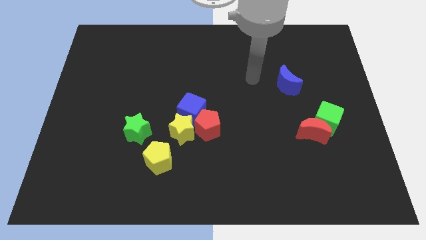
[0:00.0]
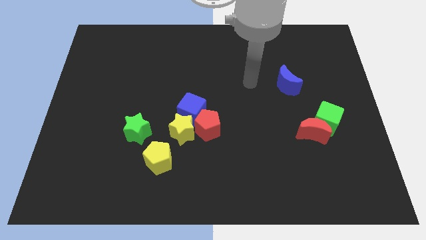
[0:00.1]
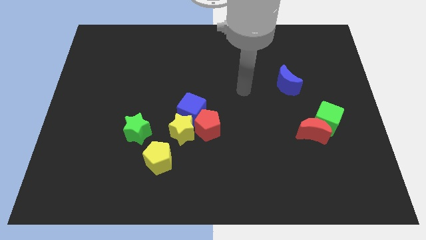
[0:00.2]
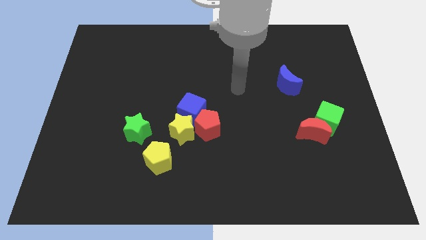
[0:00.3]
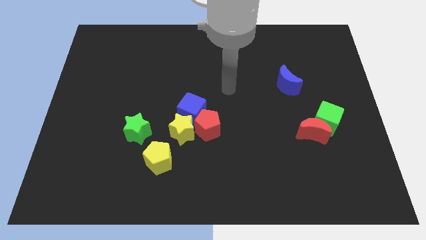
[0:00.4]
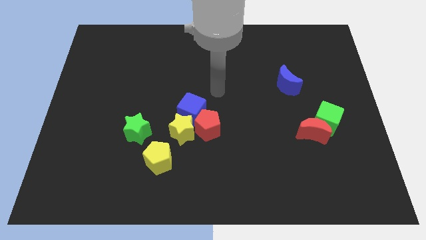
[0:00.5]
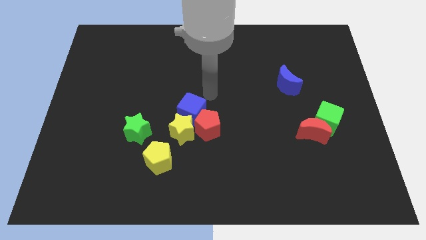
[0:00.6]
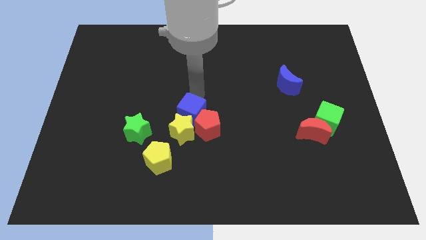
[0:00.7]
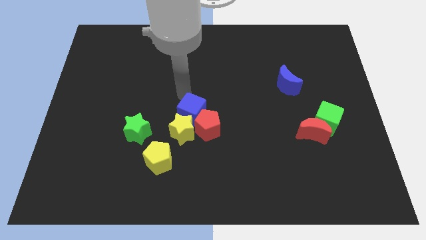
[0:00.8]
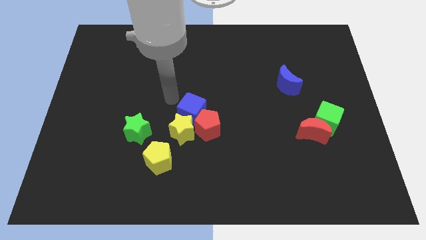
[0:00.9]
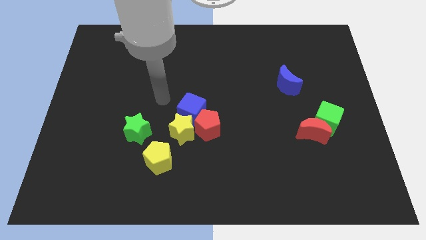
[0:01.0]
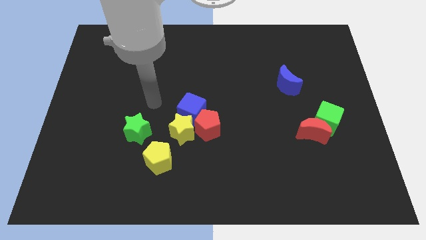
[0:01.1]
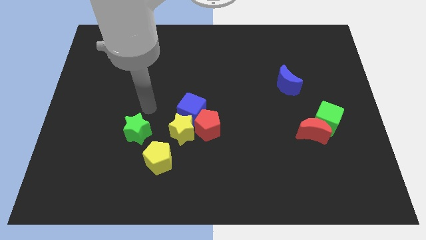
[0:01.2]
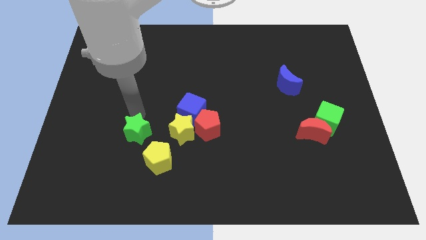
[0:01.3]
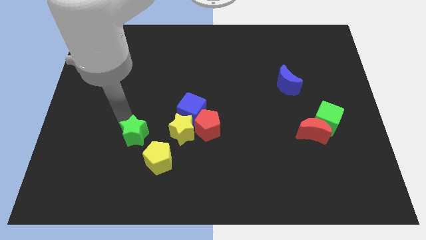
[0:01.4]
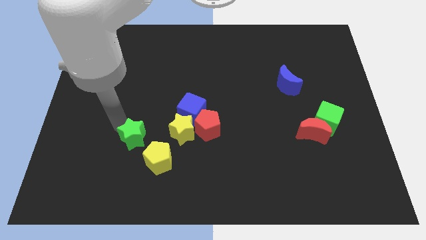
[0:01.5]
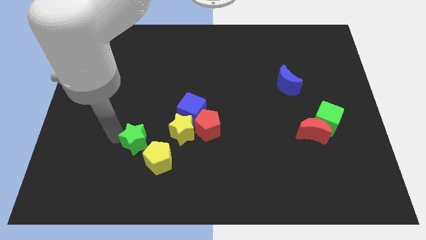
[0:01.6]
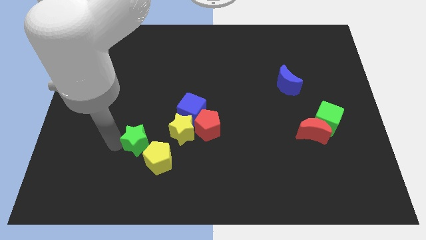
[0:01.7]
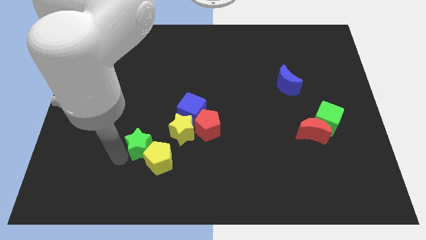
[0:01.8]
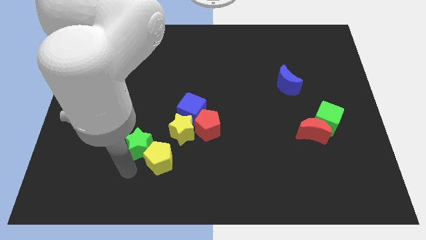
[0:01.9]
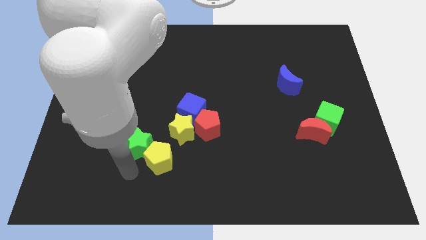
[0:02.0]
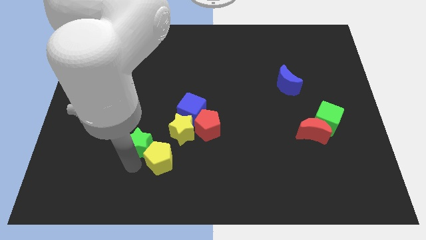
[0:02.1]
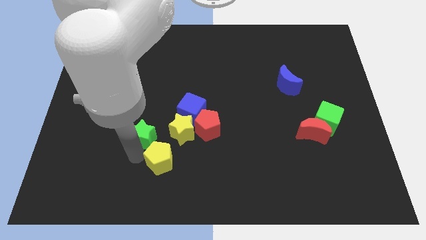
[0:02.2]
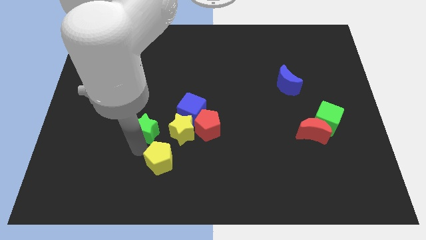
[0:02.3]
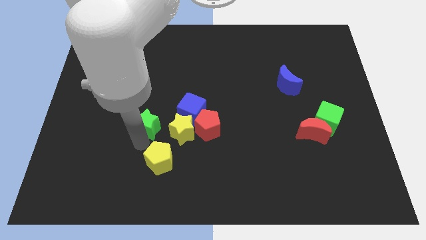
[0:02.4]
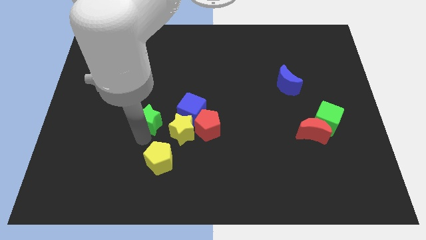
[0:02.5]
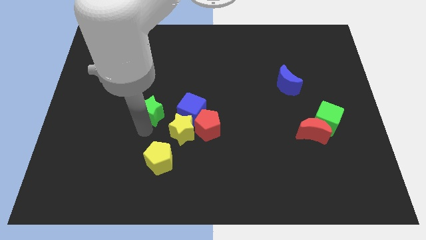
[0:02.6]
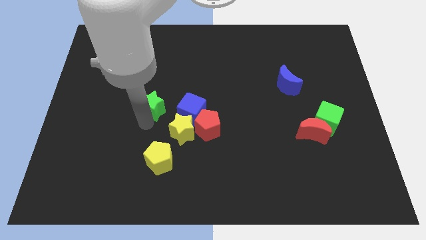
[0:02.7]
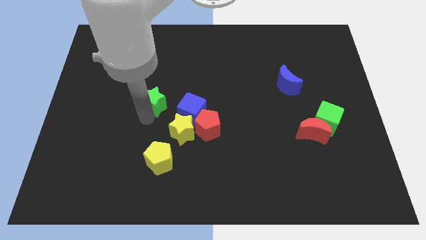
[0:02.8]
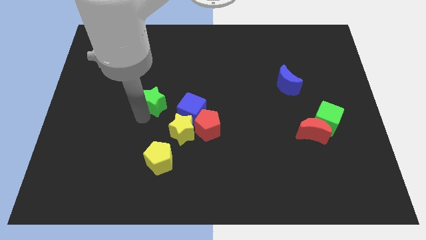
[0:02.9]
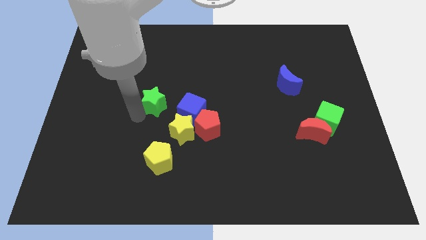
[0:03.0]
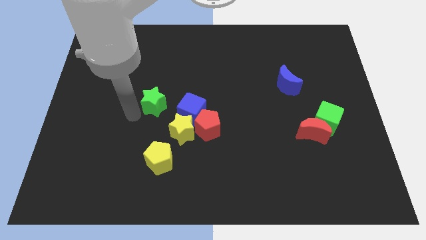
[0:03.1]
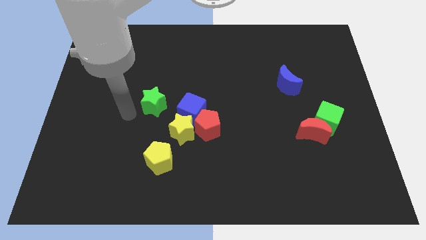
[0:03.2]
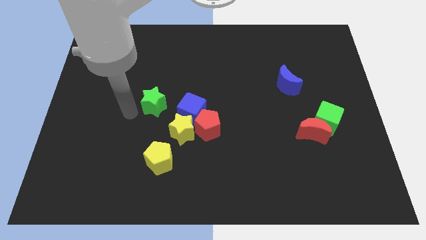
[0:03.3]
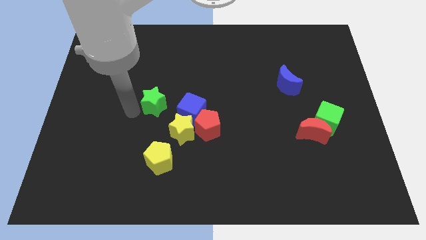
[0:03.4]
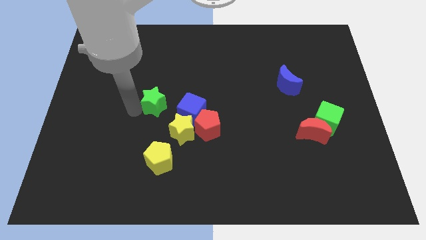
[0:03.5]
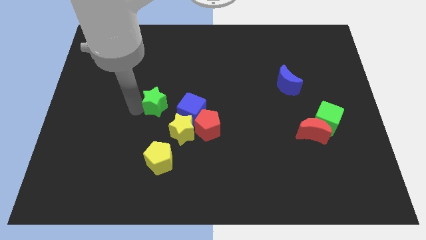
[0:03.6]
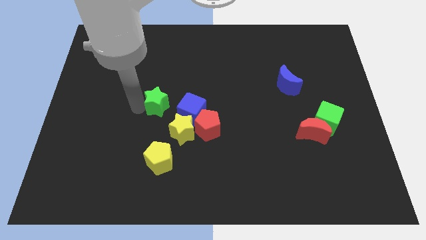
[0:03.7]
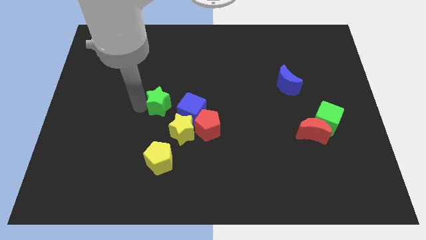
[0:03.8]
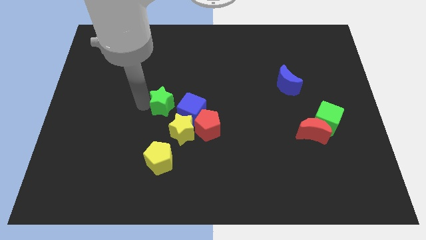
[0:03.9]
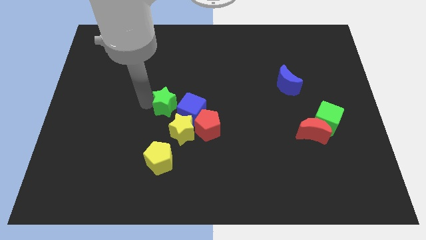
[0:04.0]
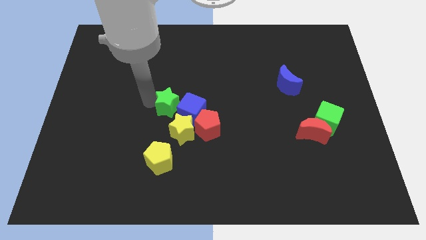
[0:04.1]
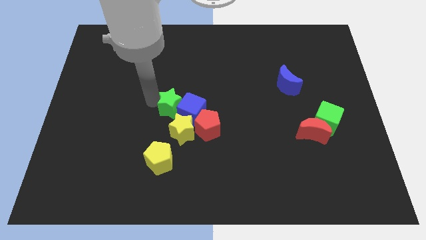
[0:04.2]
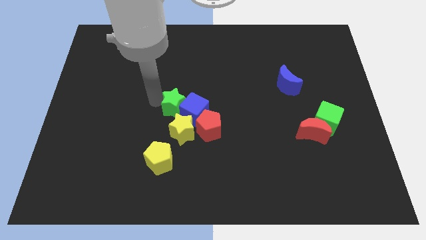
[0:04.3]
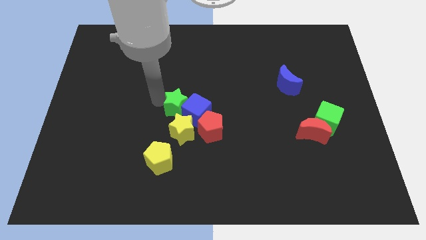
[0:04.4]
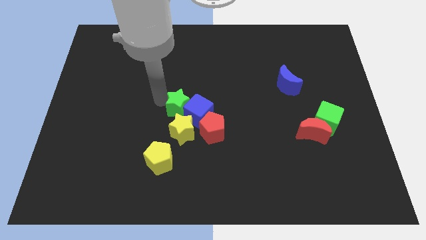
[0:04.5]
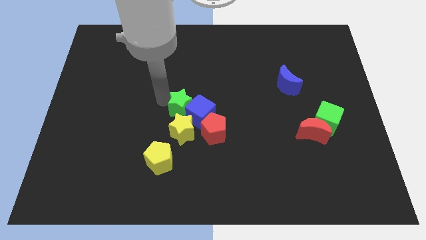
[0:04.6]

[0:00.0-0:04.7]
slightly push the green star to the right

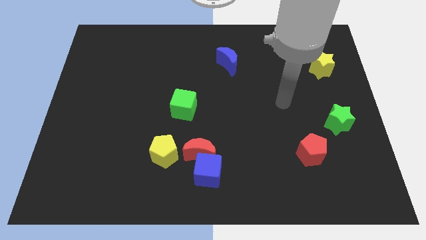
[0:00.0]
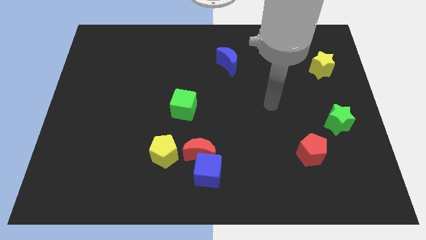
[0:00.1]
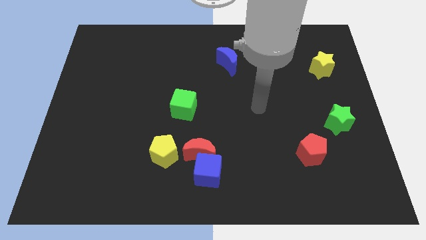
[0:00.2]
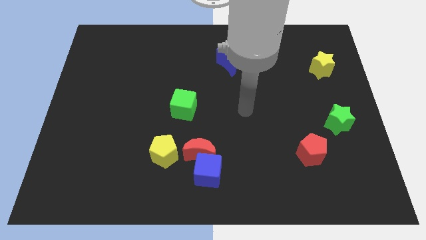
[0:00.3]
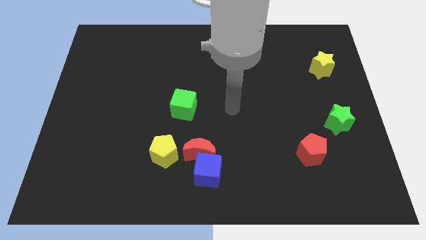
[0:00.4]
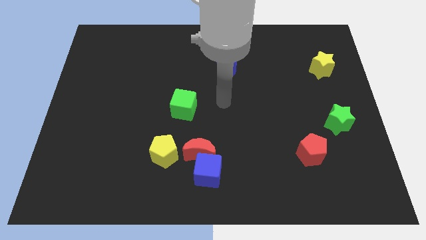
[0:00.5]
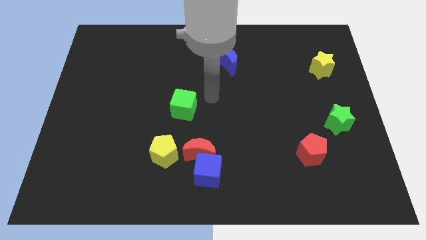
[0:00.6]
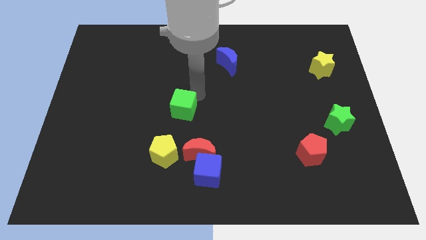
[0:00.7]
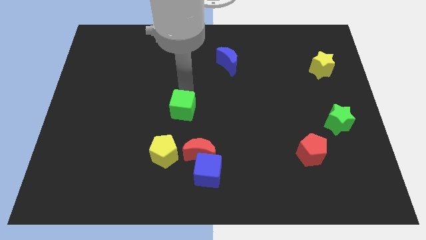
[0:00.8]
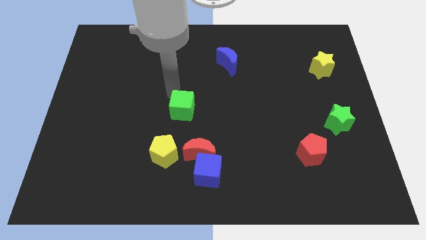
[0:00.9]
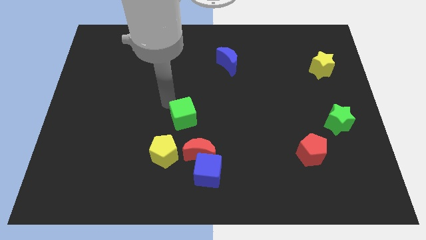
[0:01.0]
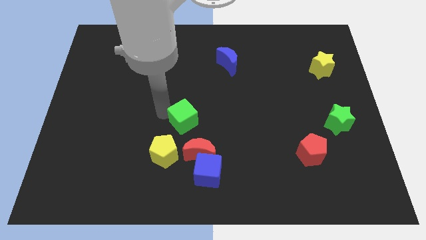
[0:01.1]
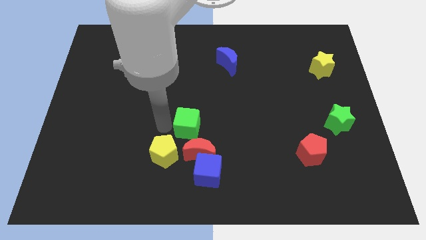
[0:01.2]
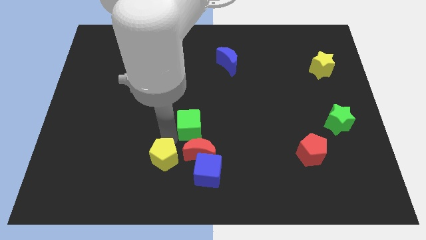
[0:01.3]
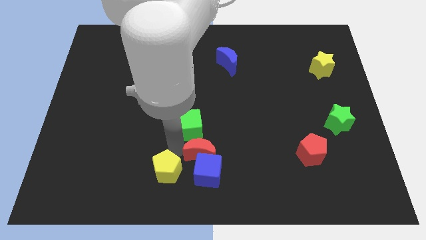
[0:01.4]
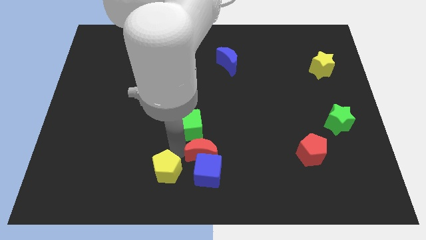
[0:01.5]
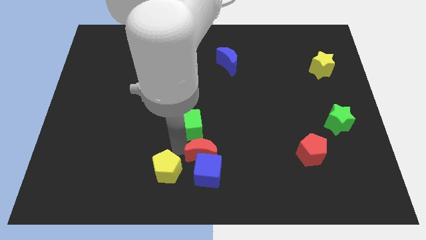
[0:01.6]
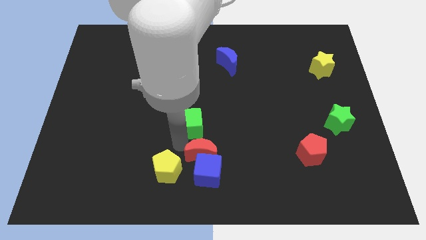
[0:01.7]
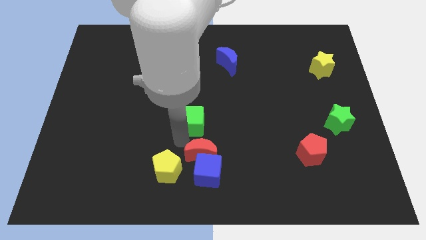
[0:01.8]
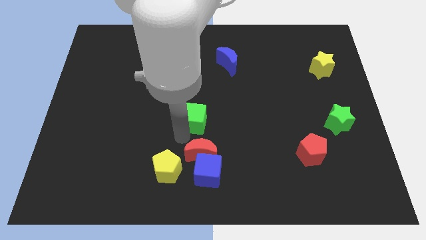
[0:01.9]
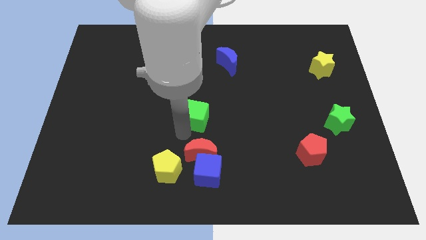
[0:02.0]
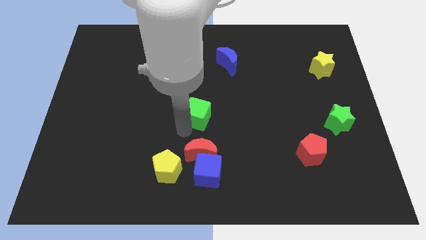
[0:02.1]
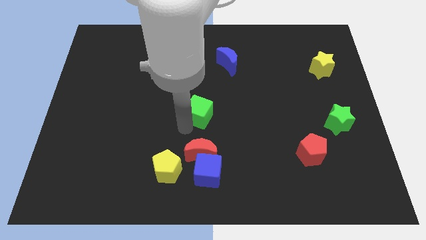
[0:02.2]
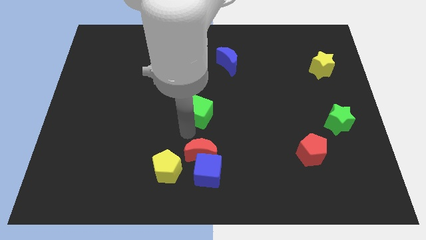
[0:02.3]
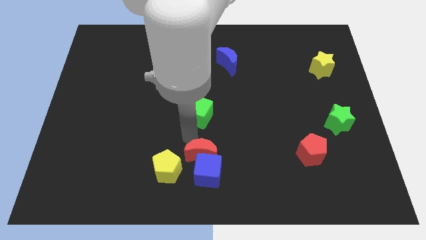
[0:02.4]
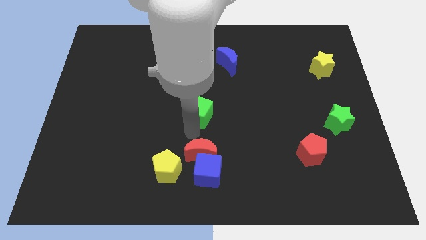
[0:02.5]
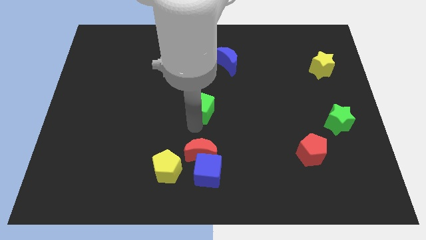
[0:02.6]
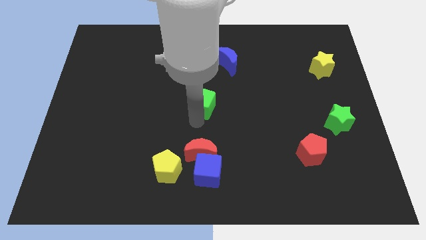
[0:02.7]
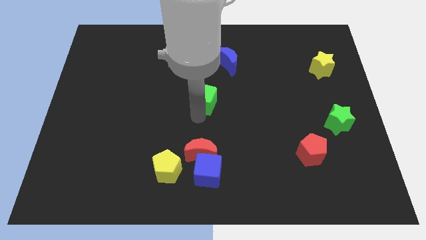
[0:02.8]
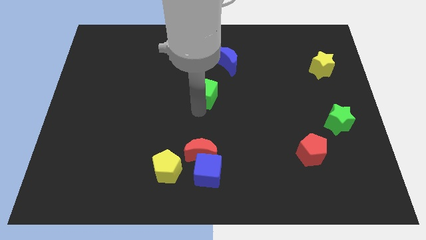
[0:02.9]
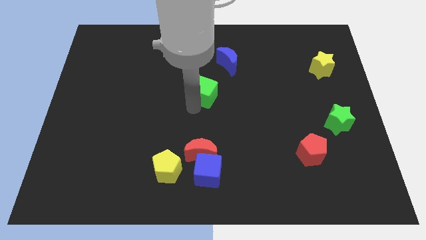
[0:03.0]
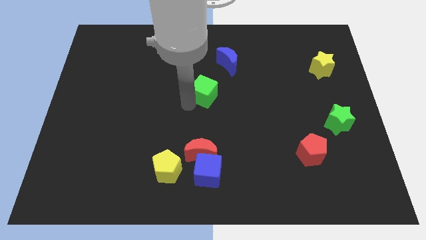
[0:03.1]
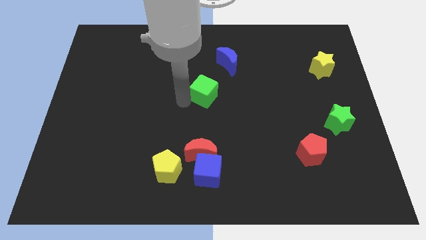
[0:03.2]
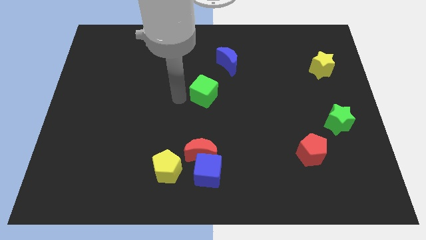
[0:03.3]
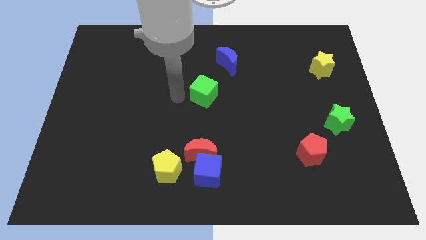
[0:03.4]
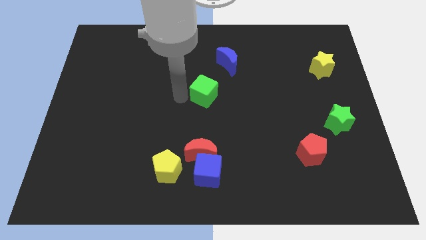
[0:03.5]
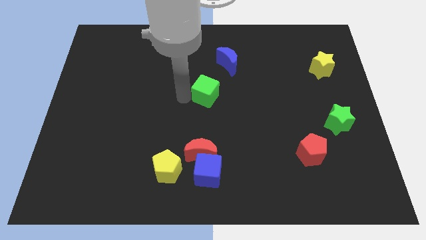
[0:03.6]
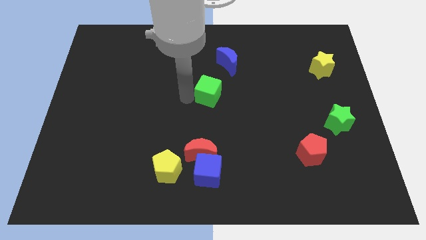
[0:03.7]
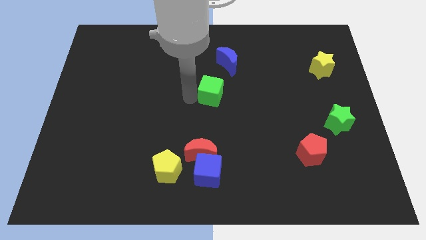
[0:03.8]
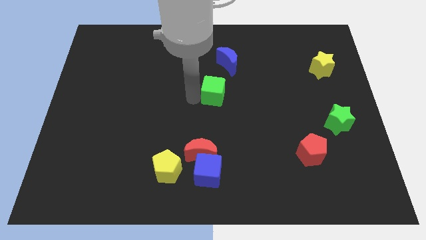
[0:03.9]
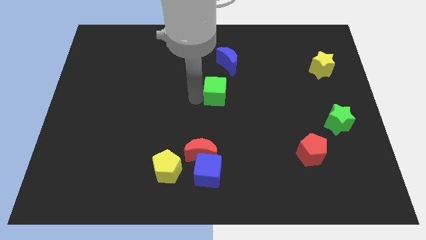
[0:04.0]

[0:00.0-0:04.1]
push the green cube to the right a little
